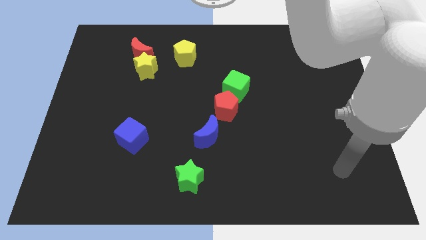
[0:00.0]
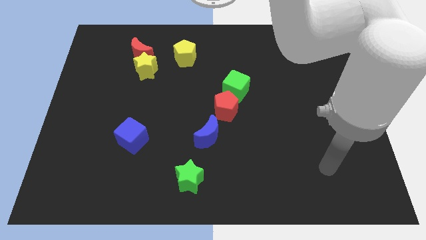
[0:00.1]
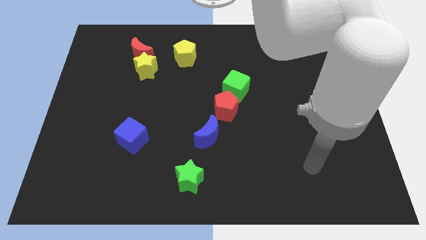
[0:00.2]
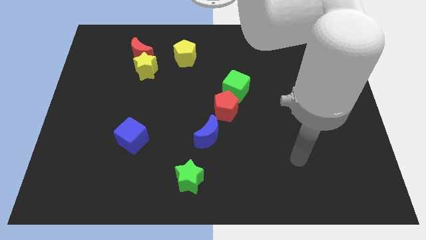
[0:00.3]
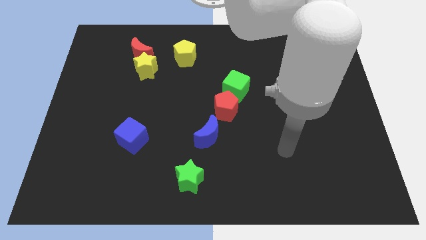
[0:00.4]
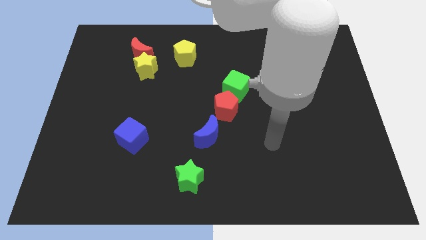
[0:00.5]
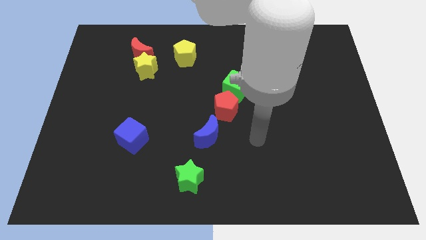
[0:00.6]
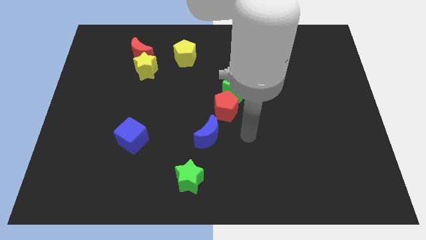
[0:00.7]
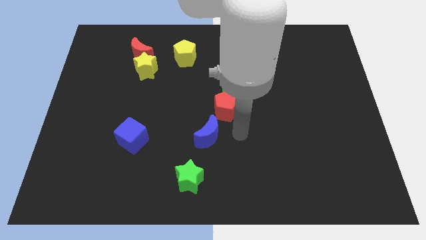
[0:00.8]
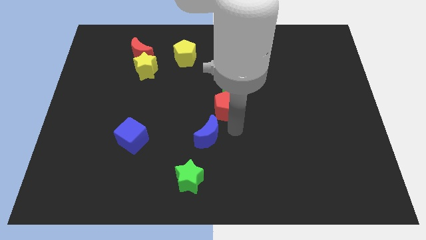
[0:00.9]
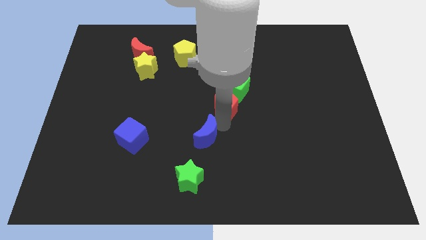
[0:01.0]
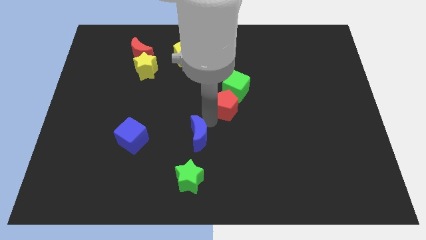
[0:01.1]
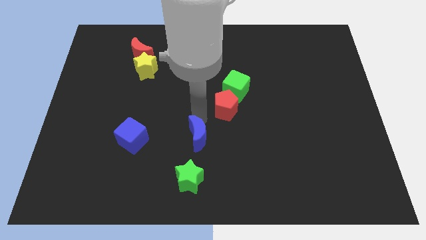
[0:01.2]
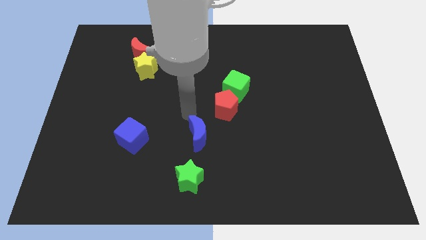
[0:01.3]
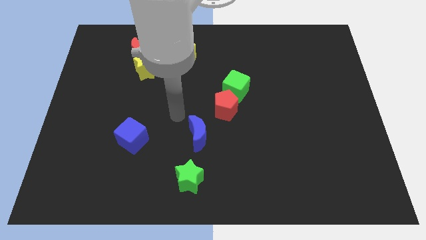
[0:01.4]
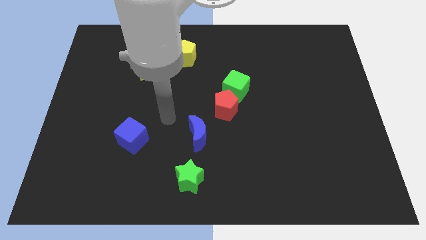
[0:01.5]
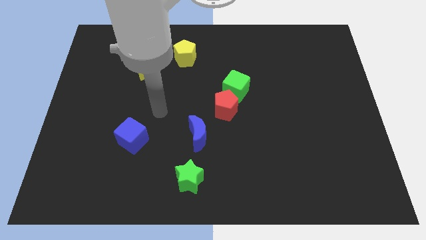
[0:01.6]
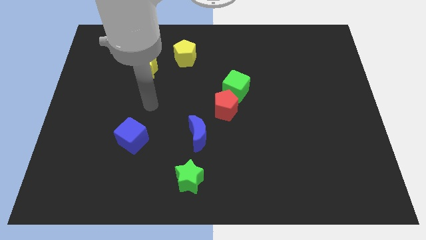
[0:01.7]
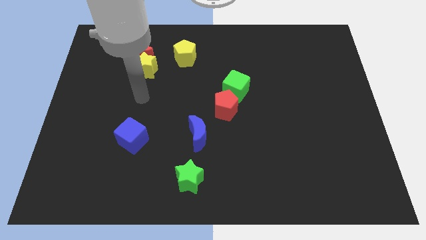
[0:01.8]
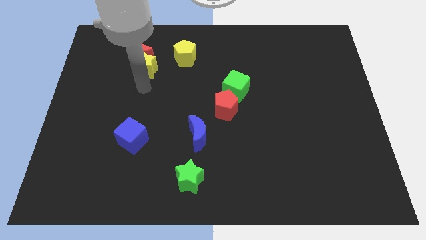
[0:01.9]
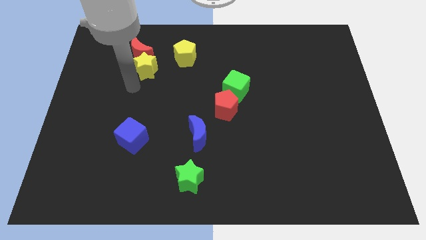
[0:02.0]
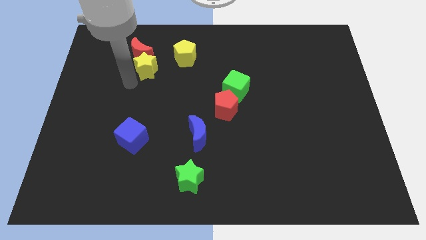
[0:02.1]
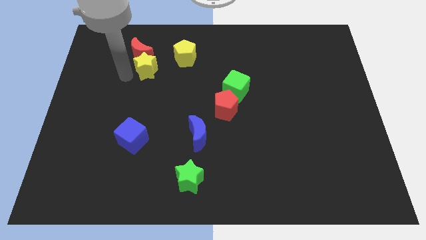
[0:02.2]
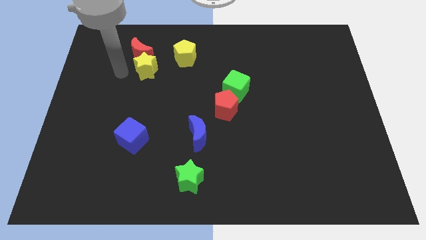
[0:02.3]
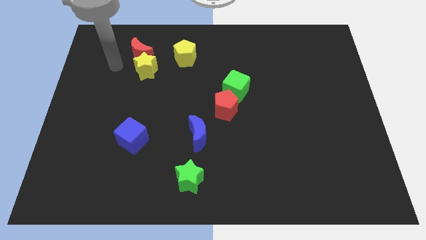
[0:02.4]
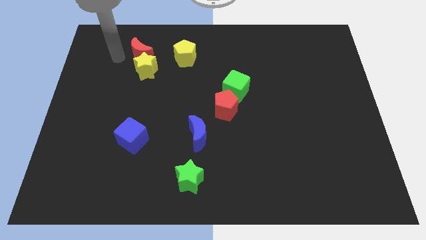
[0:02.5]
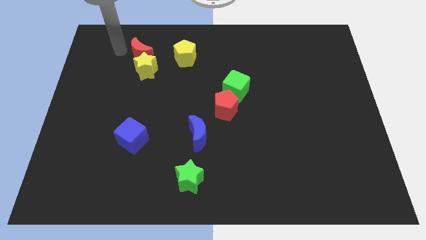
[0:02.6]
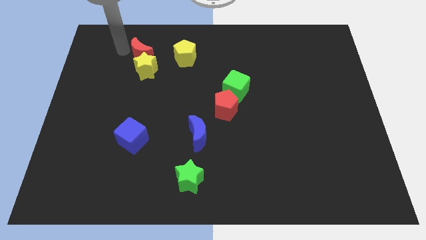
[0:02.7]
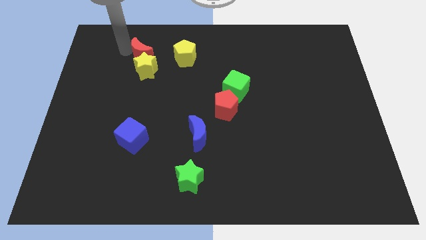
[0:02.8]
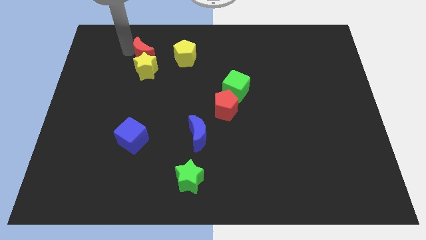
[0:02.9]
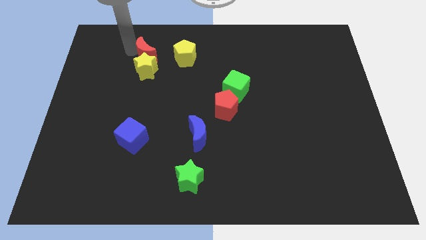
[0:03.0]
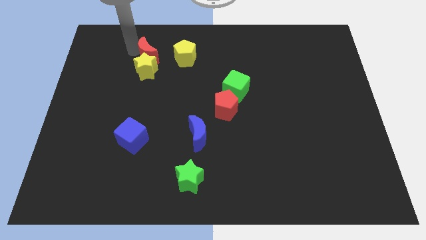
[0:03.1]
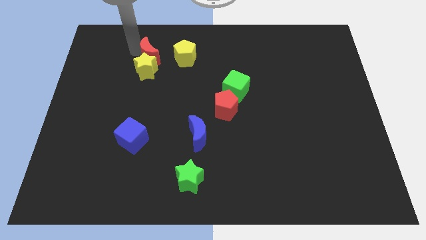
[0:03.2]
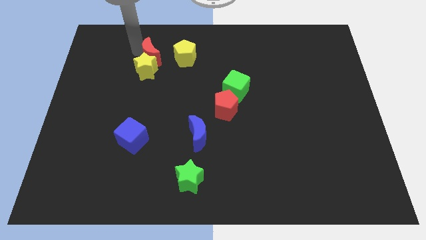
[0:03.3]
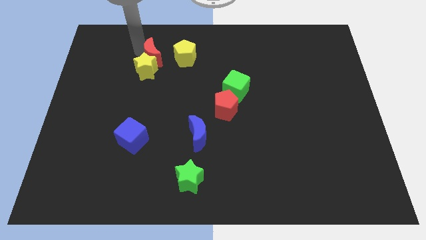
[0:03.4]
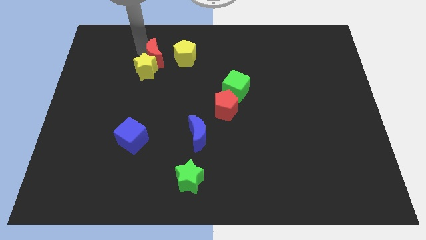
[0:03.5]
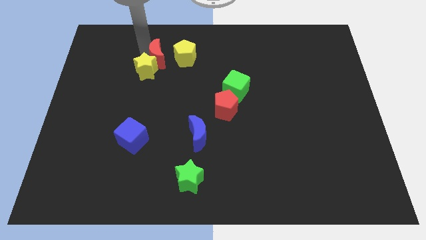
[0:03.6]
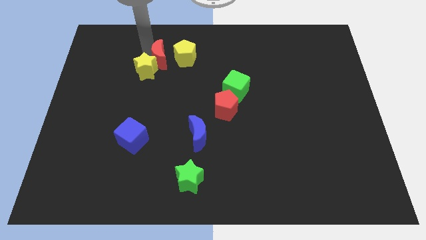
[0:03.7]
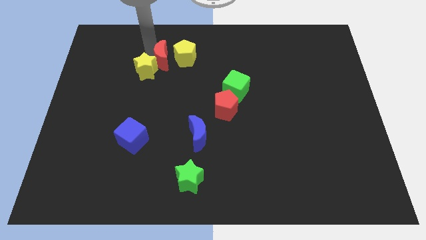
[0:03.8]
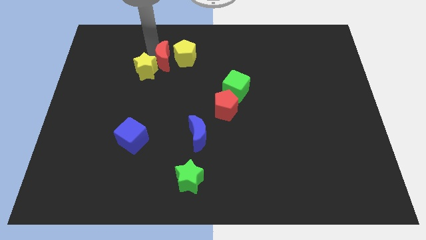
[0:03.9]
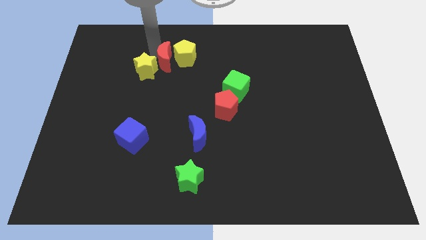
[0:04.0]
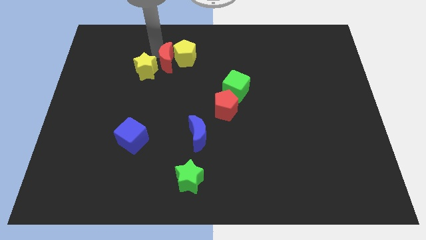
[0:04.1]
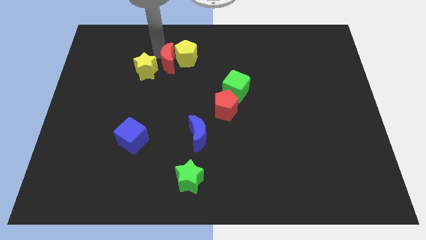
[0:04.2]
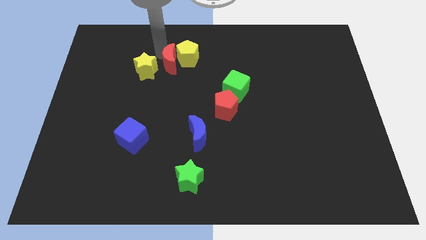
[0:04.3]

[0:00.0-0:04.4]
slide the red moon downwards and right diagonally a bit

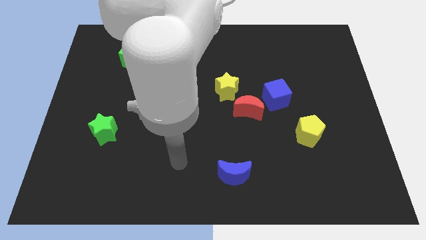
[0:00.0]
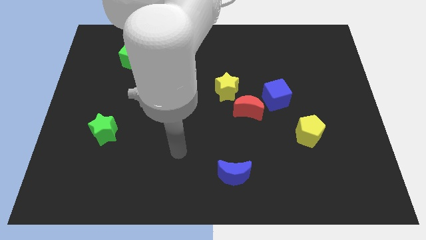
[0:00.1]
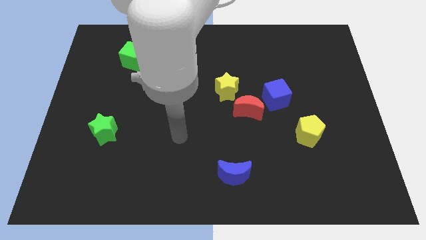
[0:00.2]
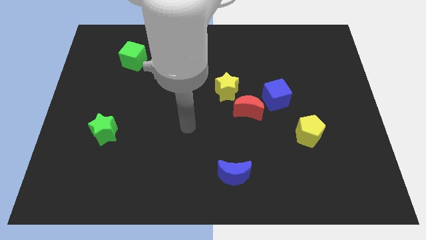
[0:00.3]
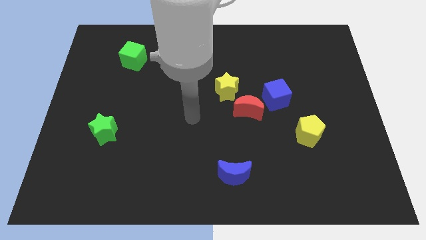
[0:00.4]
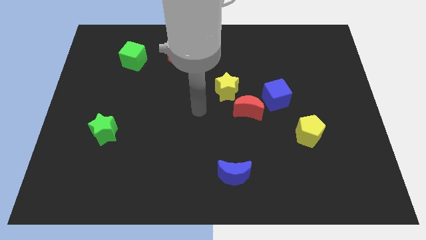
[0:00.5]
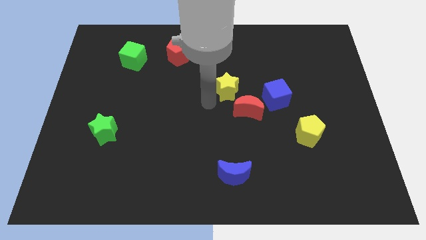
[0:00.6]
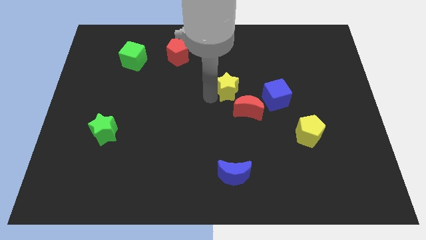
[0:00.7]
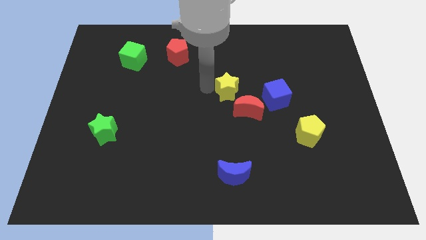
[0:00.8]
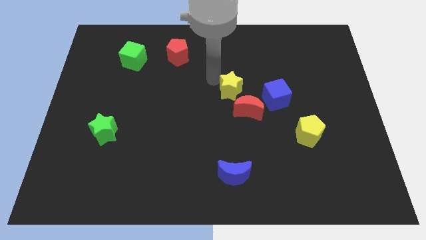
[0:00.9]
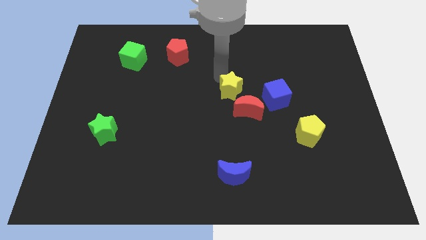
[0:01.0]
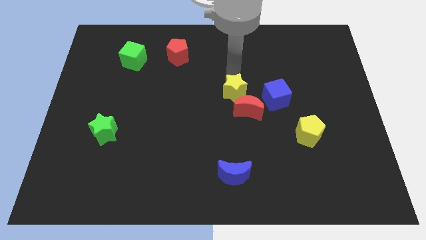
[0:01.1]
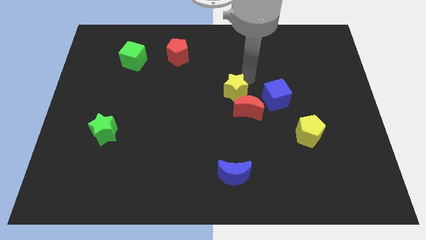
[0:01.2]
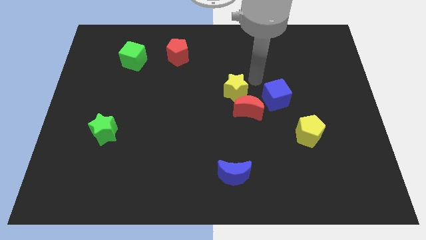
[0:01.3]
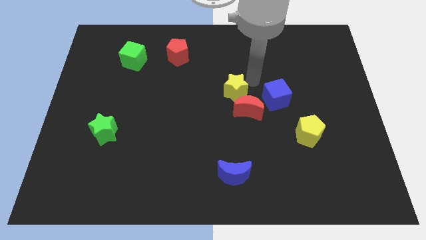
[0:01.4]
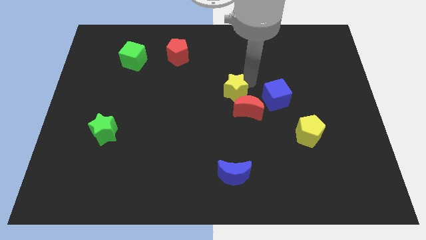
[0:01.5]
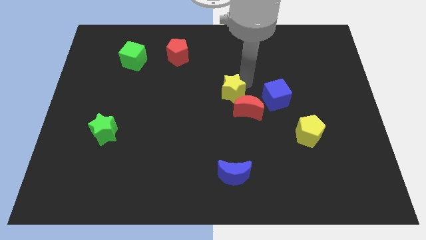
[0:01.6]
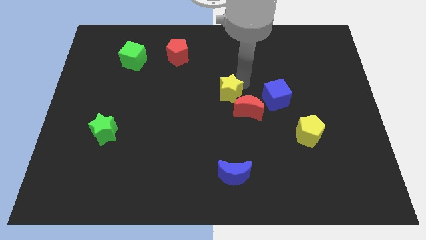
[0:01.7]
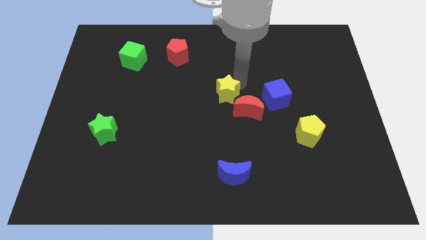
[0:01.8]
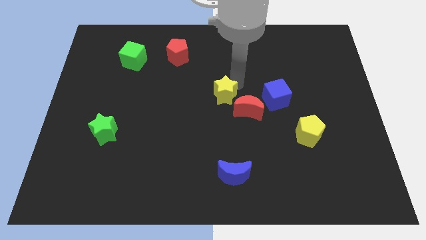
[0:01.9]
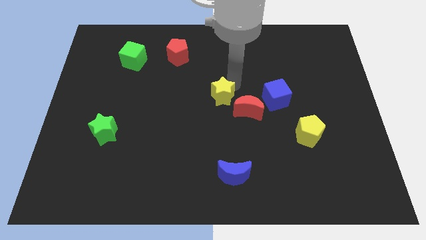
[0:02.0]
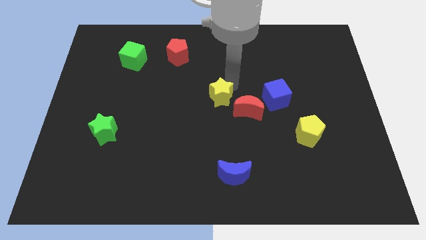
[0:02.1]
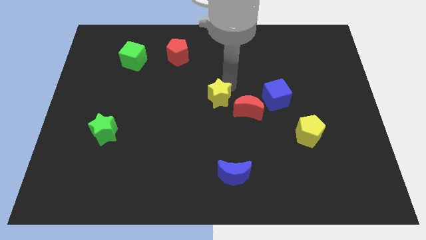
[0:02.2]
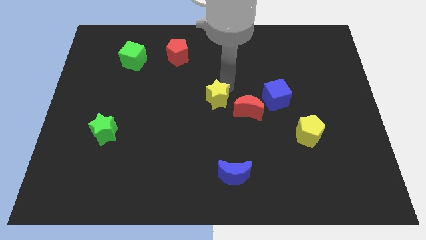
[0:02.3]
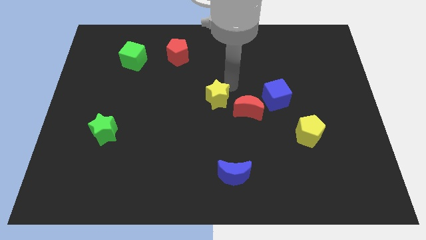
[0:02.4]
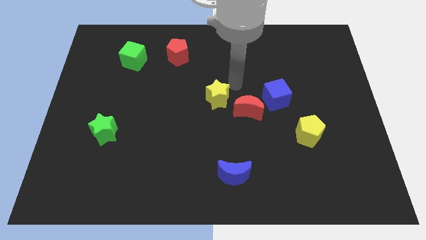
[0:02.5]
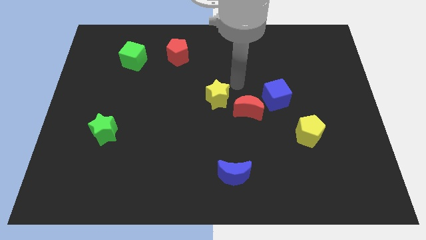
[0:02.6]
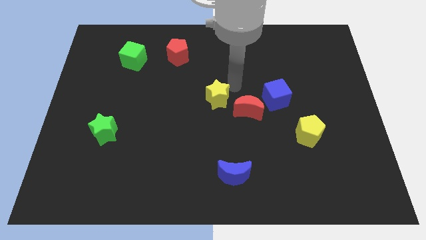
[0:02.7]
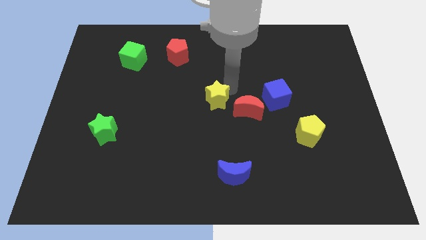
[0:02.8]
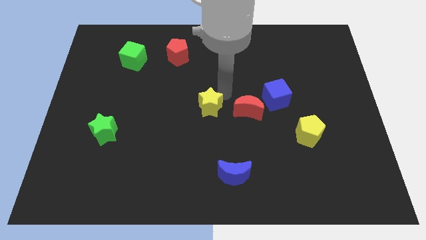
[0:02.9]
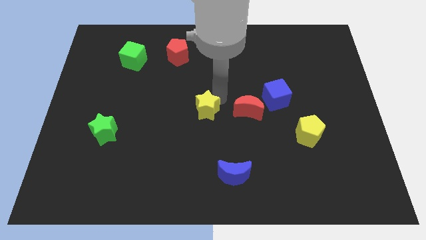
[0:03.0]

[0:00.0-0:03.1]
slide the yellow star down and left diagonally slightly

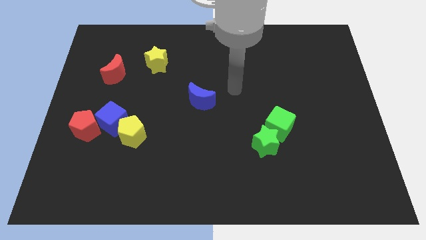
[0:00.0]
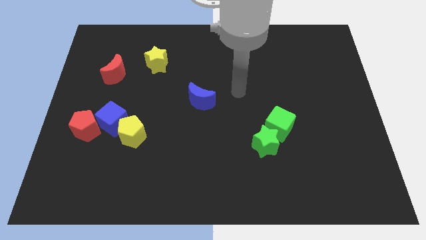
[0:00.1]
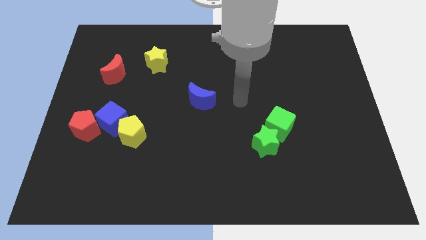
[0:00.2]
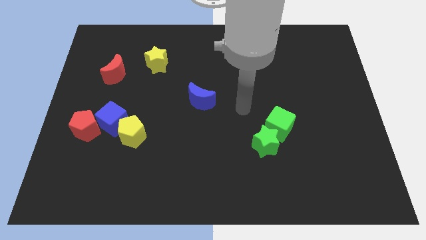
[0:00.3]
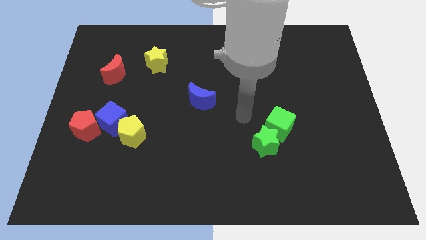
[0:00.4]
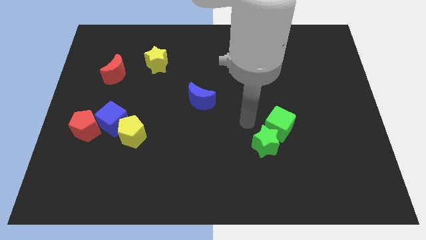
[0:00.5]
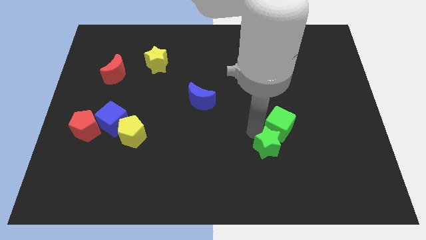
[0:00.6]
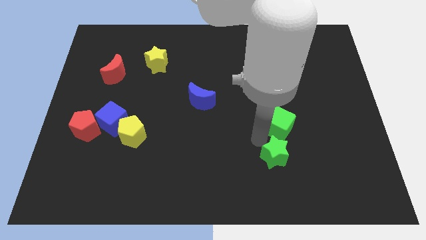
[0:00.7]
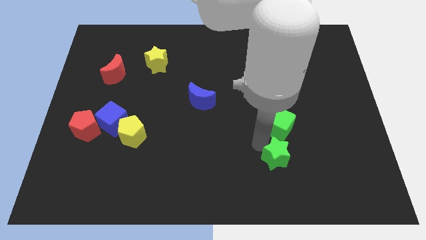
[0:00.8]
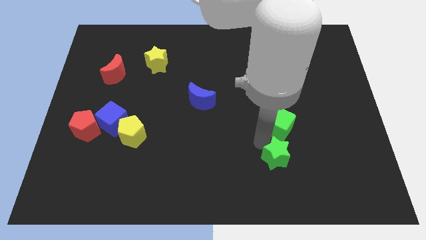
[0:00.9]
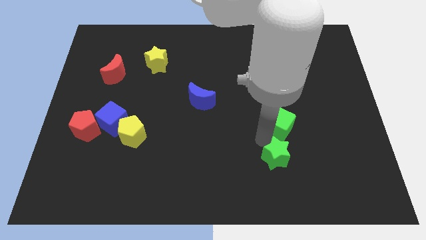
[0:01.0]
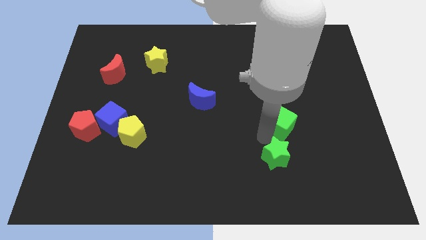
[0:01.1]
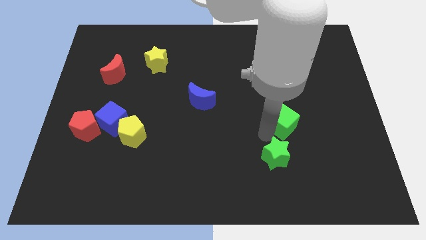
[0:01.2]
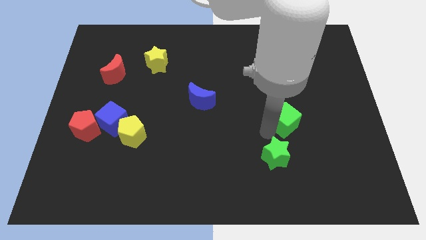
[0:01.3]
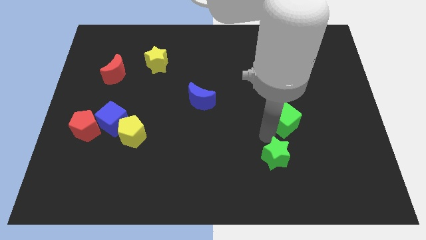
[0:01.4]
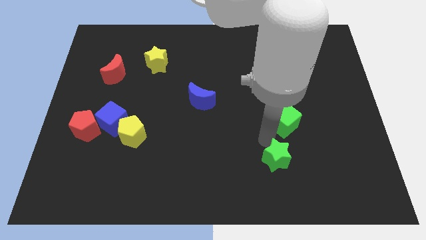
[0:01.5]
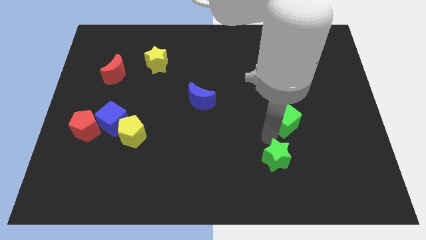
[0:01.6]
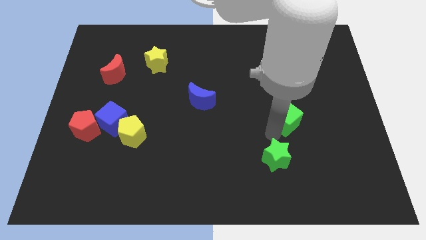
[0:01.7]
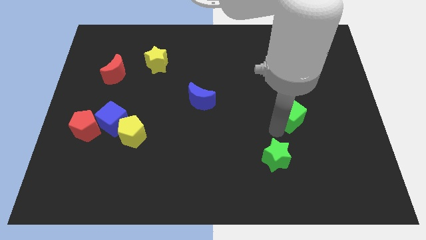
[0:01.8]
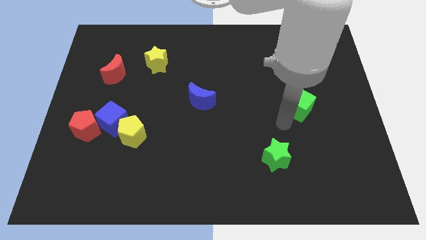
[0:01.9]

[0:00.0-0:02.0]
slightly slide the green cube diagonally up and to the right
